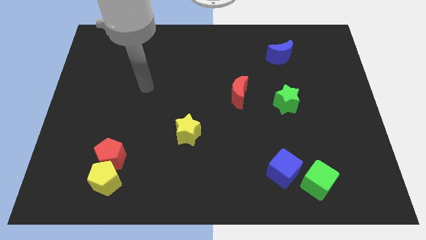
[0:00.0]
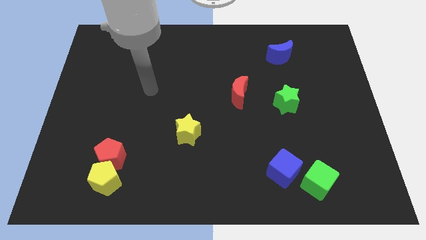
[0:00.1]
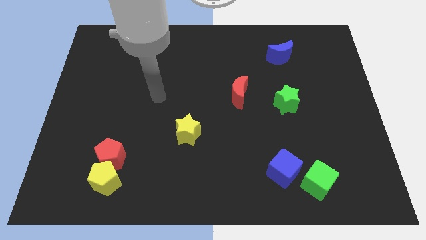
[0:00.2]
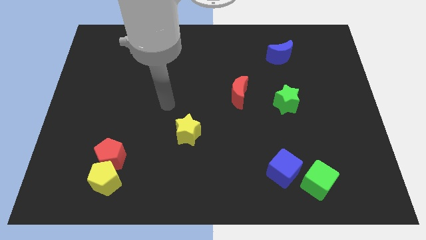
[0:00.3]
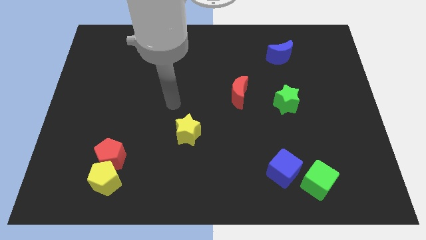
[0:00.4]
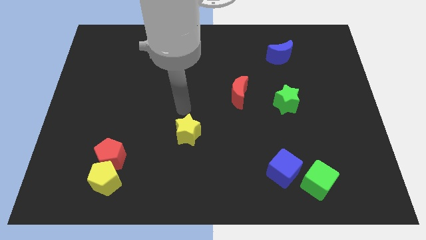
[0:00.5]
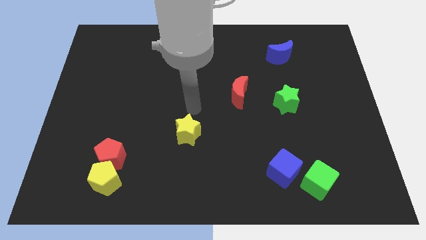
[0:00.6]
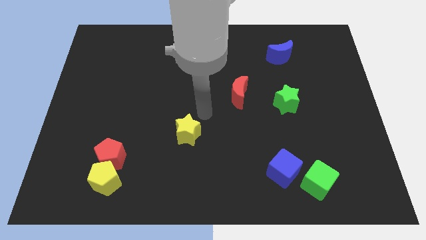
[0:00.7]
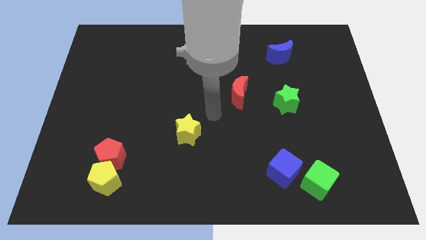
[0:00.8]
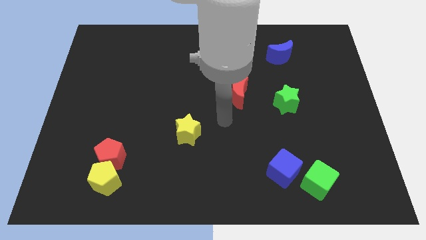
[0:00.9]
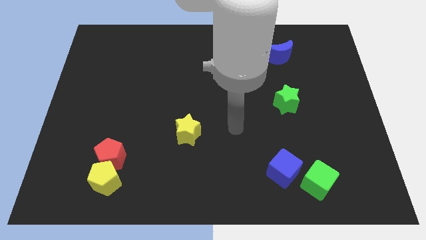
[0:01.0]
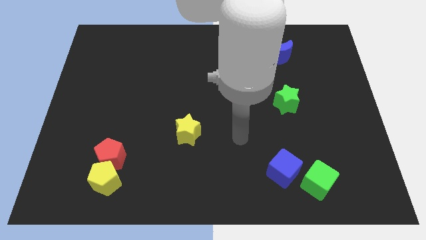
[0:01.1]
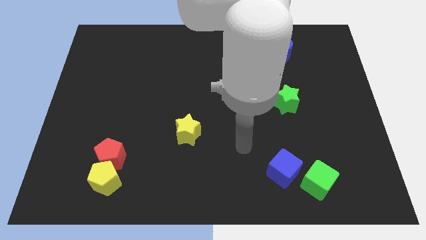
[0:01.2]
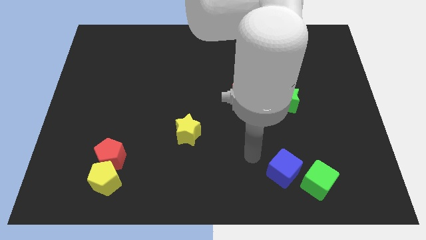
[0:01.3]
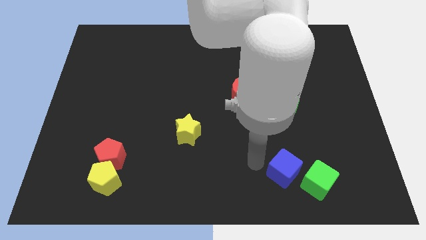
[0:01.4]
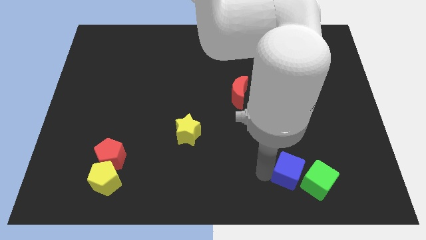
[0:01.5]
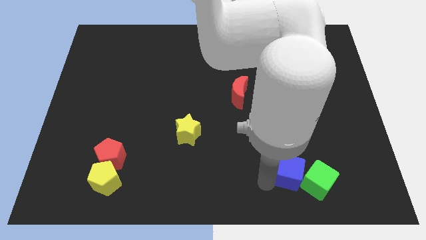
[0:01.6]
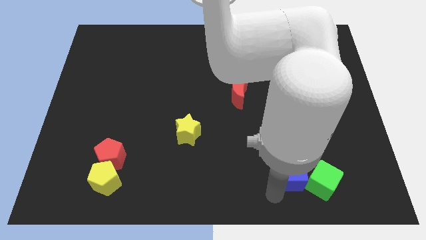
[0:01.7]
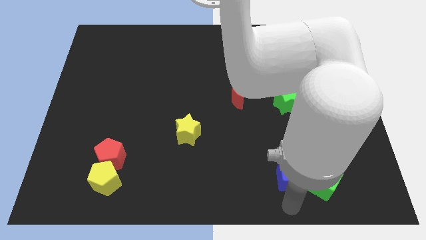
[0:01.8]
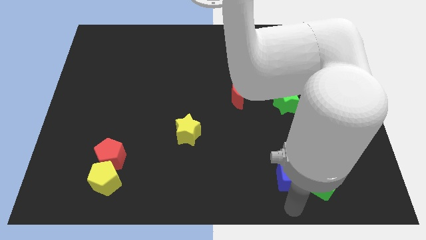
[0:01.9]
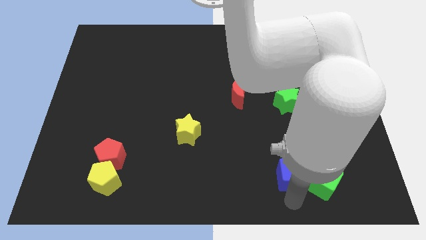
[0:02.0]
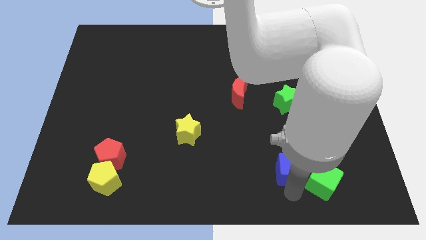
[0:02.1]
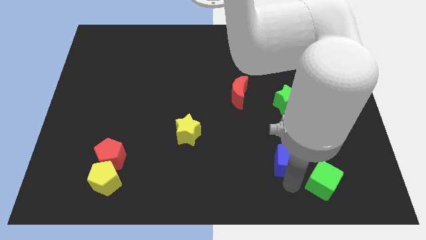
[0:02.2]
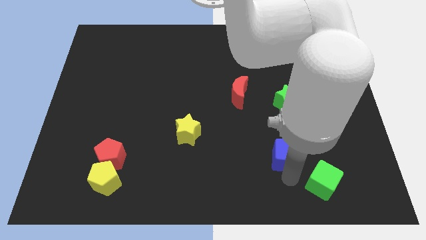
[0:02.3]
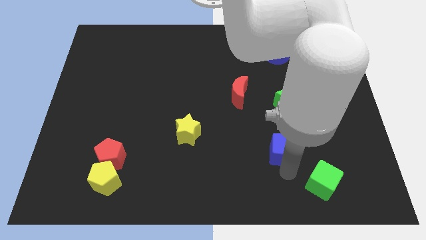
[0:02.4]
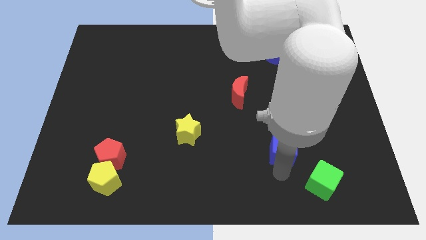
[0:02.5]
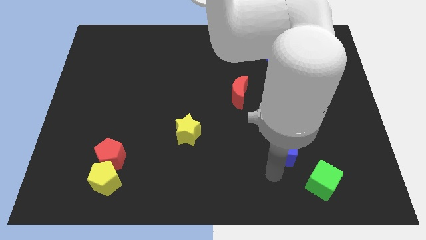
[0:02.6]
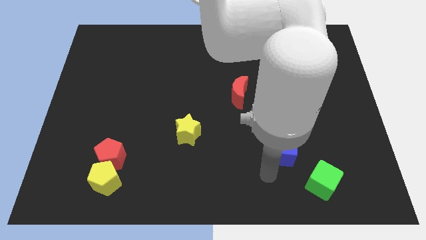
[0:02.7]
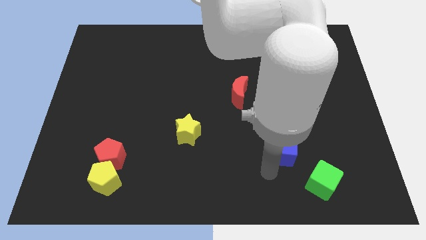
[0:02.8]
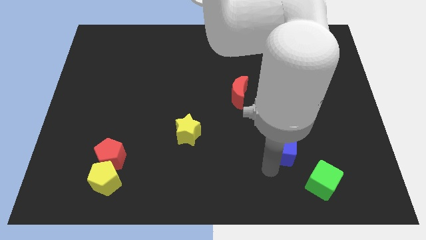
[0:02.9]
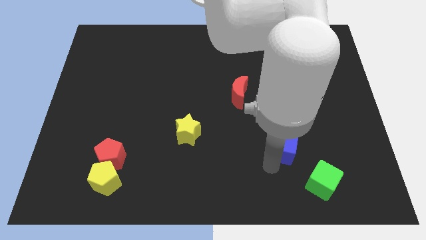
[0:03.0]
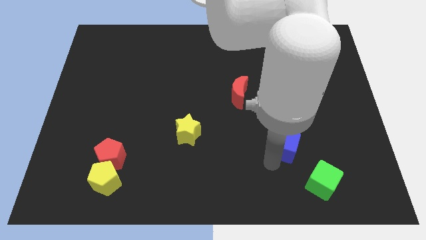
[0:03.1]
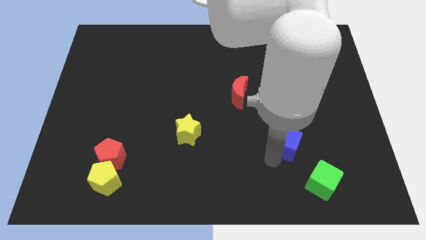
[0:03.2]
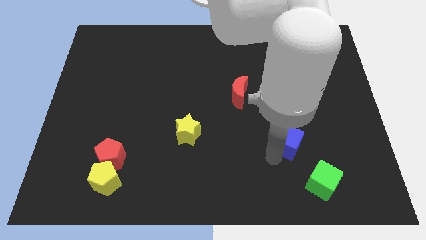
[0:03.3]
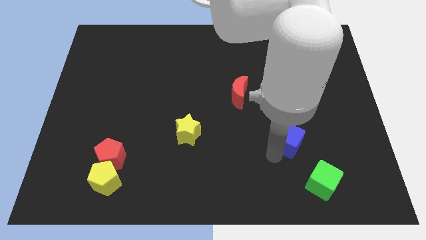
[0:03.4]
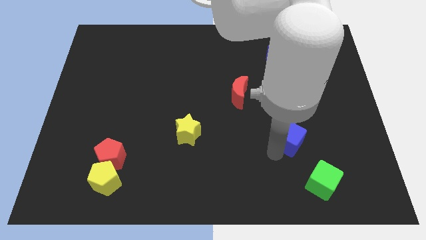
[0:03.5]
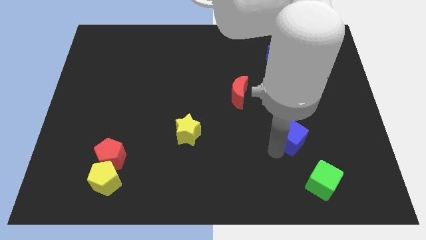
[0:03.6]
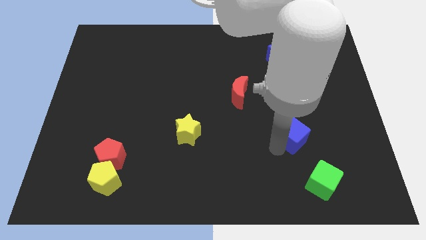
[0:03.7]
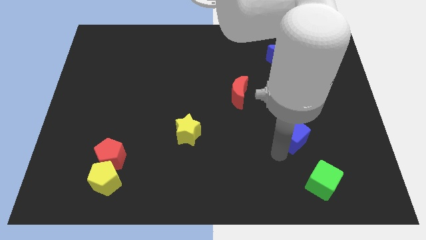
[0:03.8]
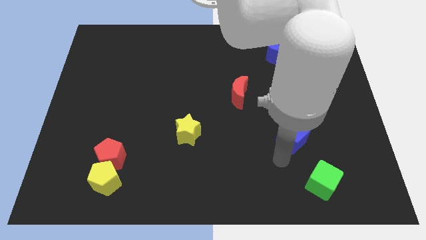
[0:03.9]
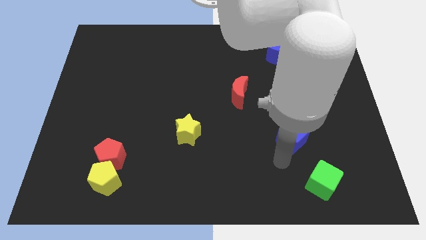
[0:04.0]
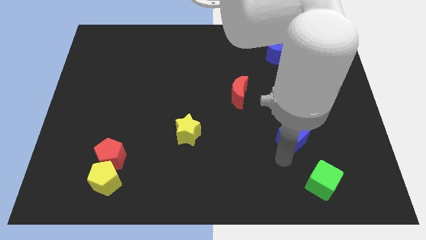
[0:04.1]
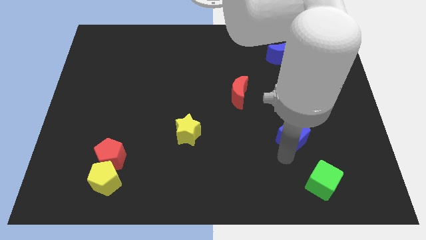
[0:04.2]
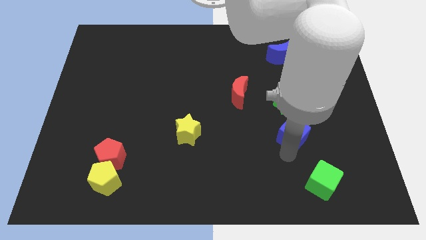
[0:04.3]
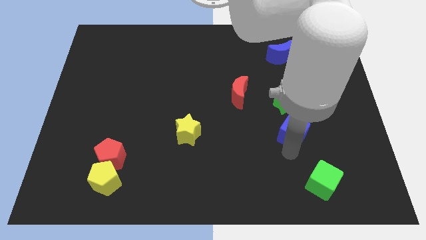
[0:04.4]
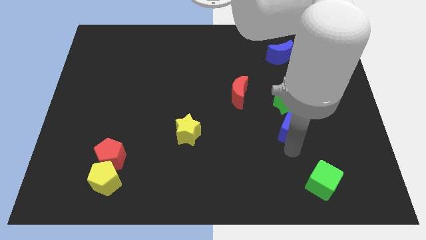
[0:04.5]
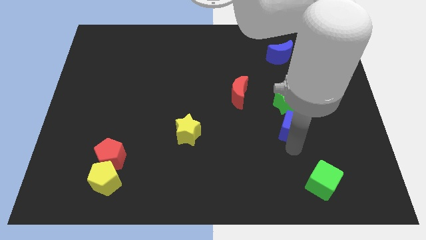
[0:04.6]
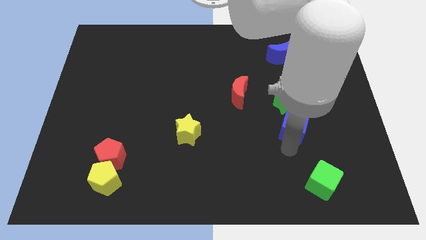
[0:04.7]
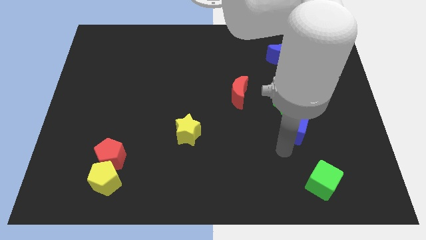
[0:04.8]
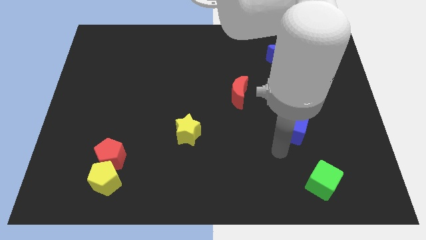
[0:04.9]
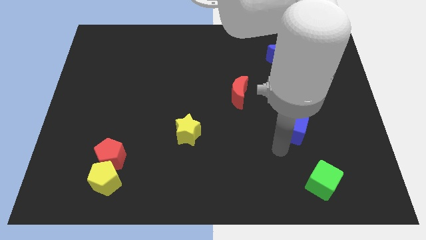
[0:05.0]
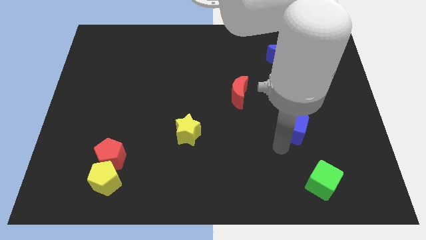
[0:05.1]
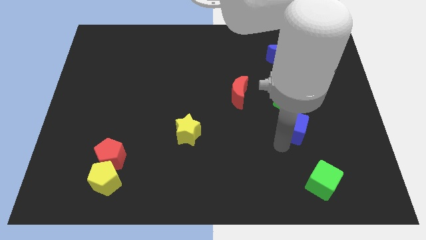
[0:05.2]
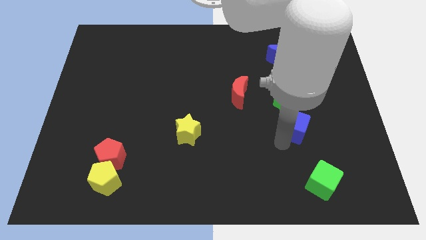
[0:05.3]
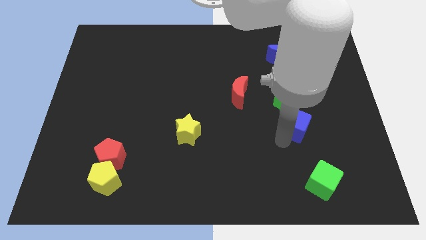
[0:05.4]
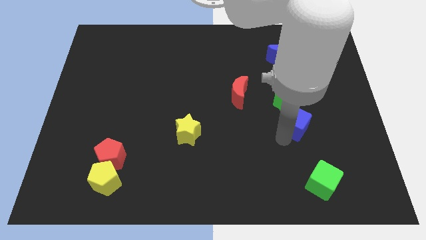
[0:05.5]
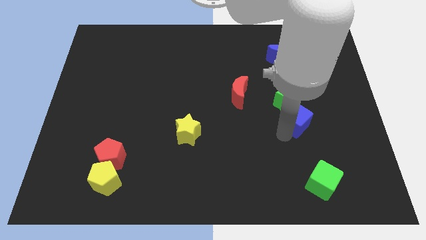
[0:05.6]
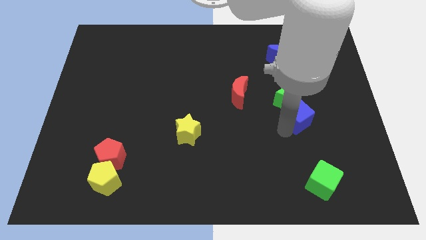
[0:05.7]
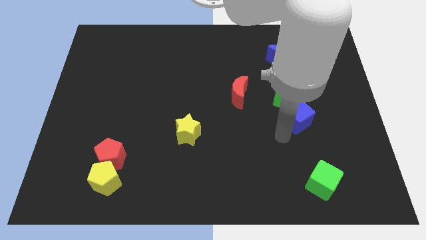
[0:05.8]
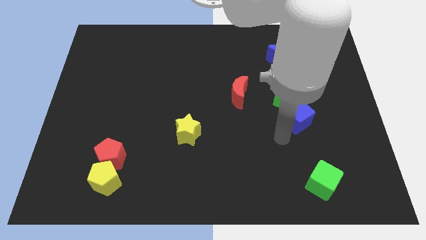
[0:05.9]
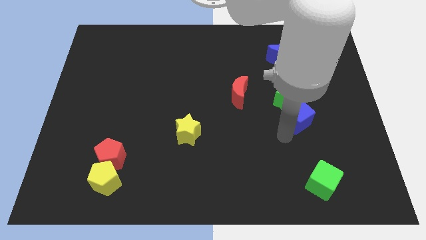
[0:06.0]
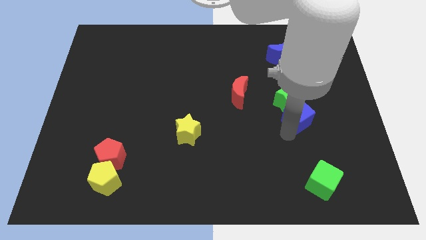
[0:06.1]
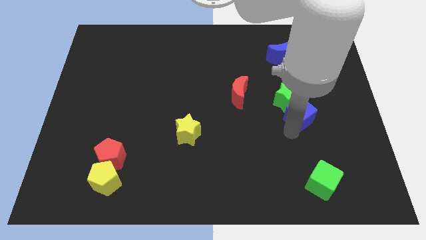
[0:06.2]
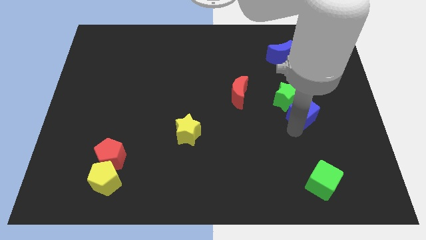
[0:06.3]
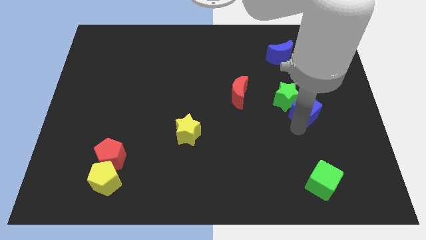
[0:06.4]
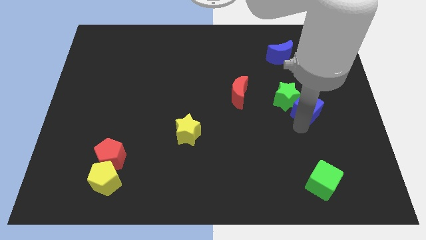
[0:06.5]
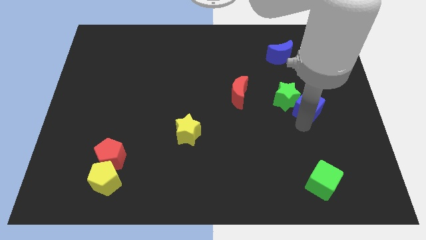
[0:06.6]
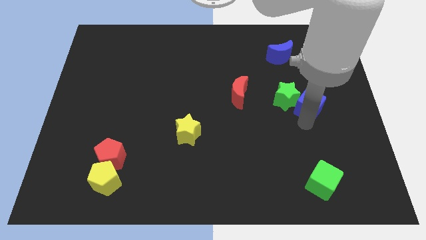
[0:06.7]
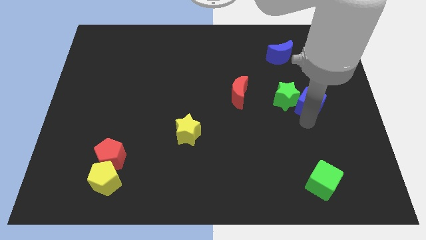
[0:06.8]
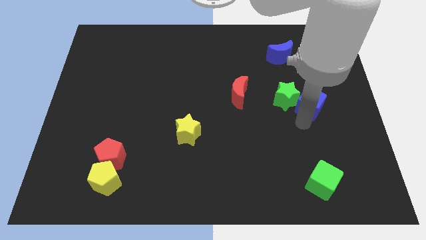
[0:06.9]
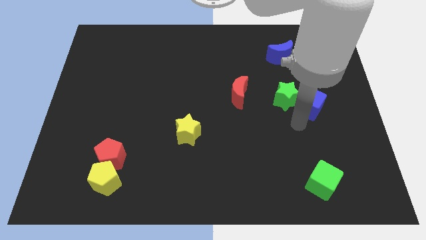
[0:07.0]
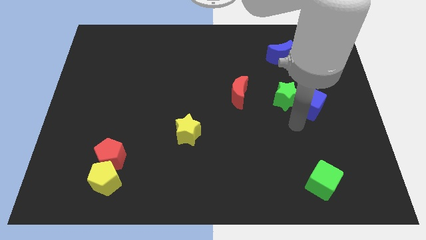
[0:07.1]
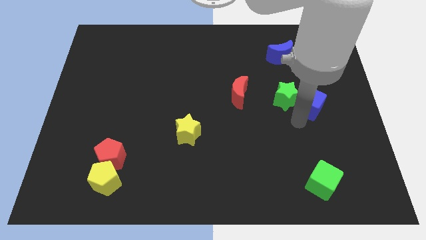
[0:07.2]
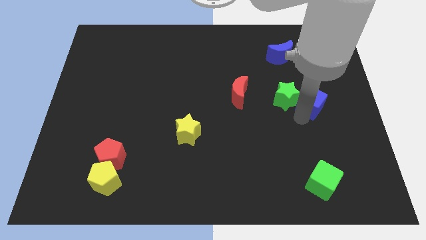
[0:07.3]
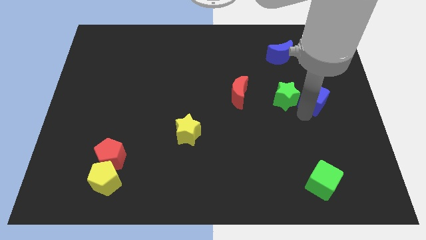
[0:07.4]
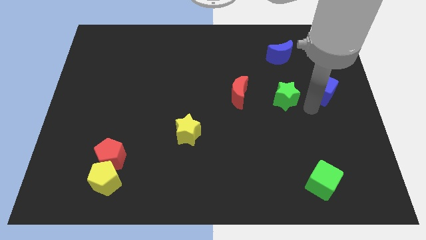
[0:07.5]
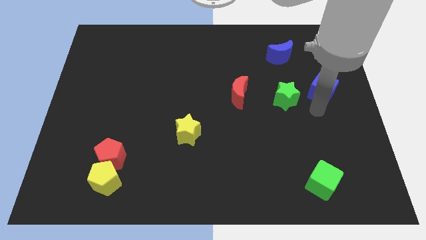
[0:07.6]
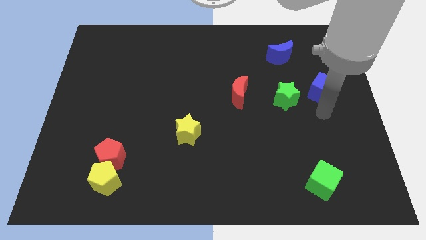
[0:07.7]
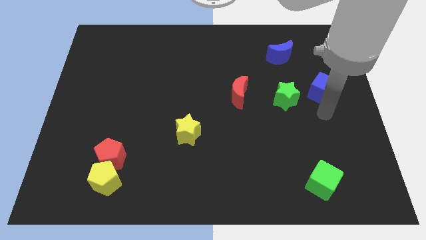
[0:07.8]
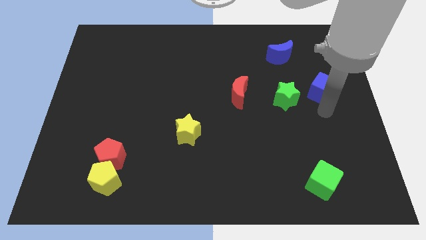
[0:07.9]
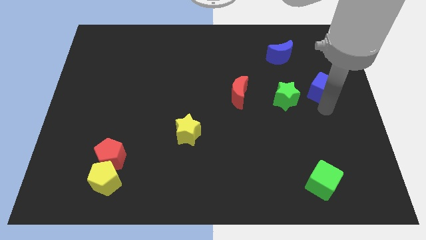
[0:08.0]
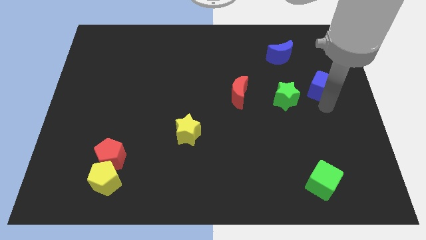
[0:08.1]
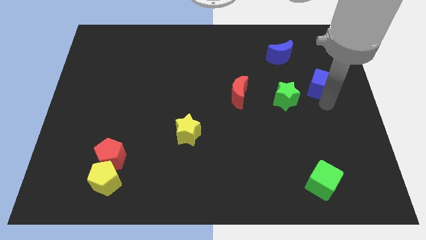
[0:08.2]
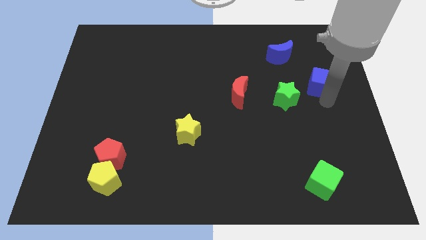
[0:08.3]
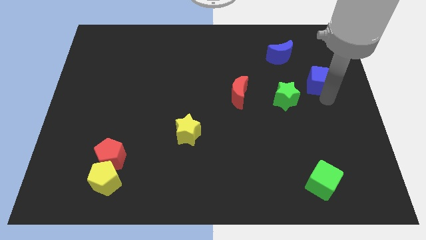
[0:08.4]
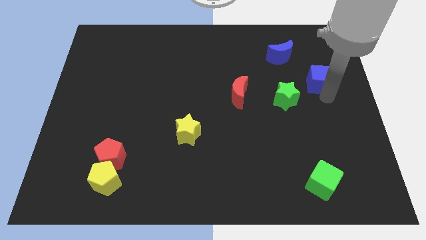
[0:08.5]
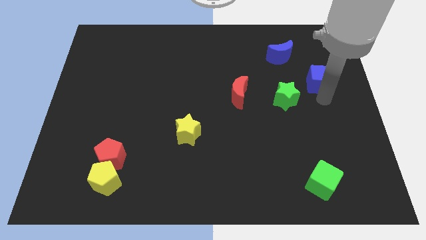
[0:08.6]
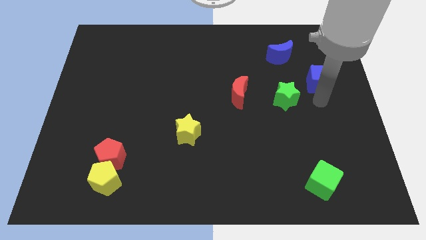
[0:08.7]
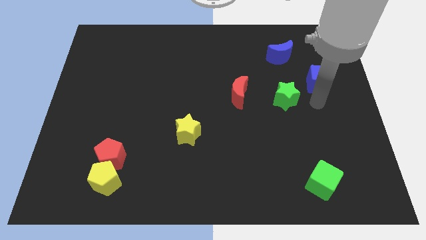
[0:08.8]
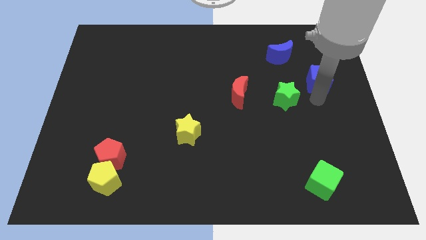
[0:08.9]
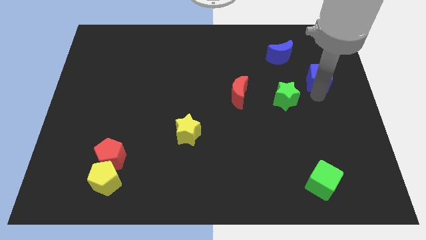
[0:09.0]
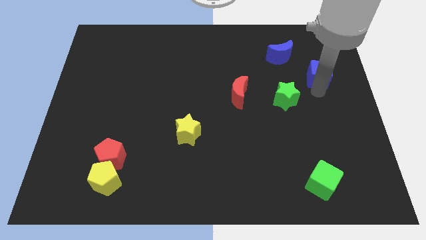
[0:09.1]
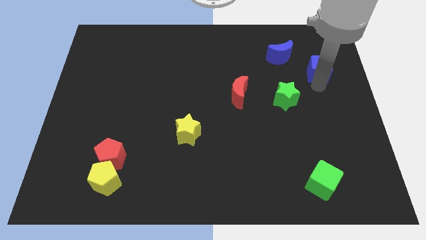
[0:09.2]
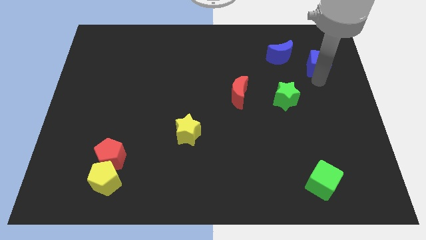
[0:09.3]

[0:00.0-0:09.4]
put the blue cube just right of the blue moon
